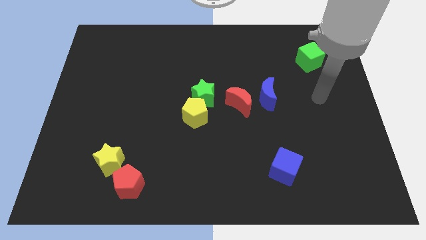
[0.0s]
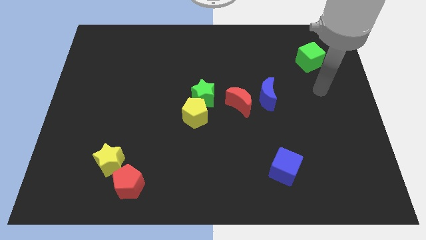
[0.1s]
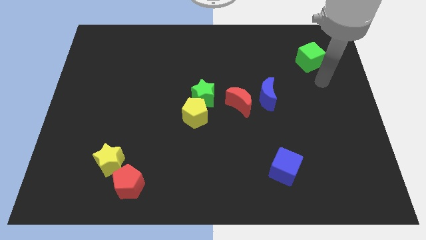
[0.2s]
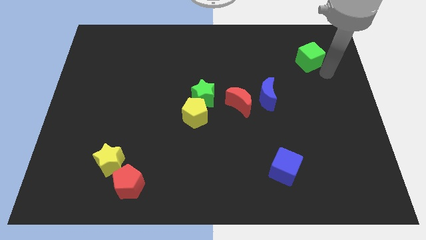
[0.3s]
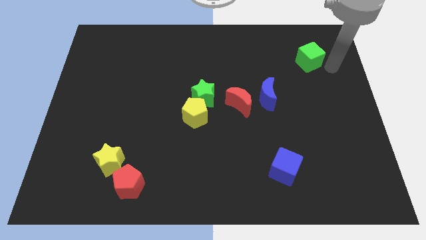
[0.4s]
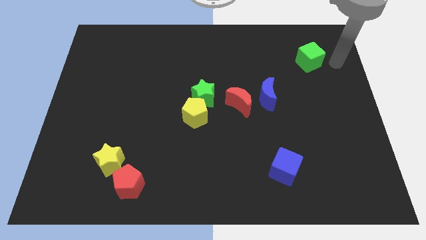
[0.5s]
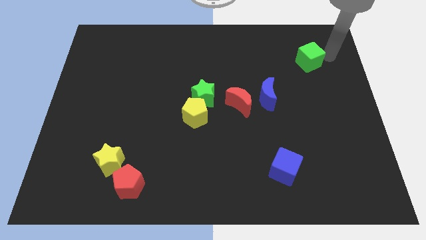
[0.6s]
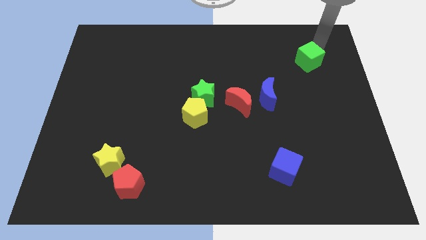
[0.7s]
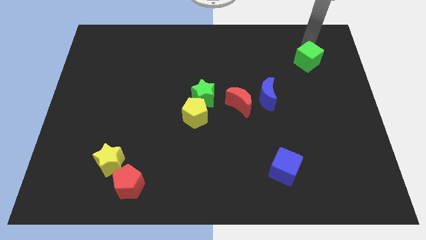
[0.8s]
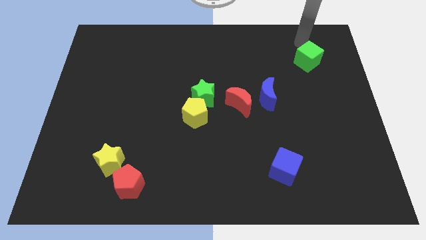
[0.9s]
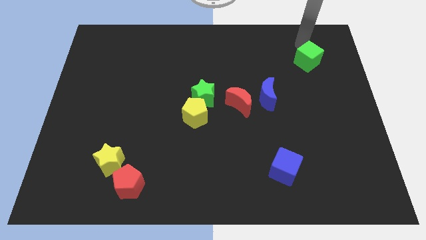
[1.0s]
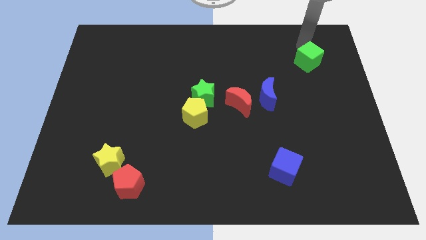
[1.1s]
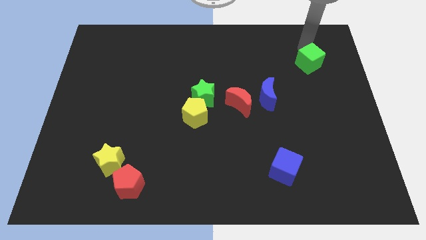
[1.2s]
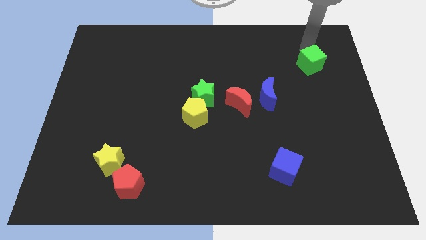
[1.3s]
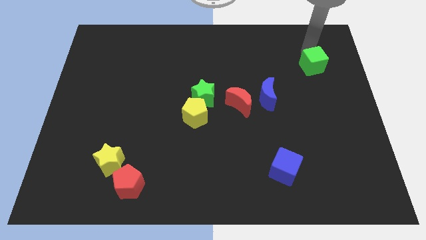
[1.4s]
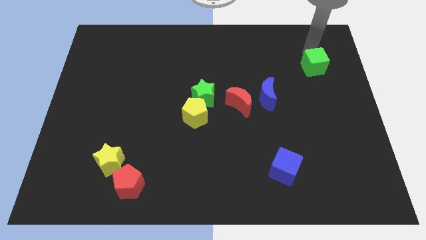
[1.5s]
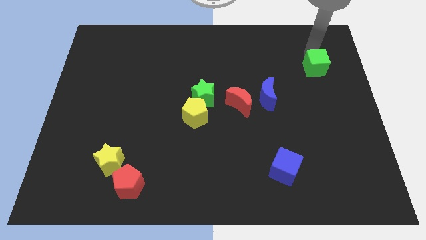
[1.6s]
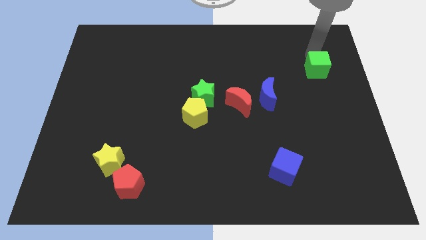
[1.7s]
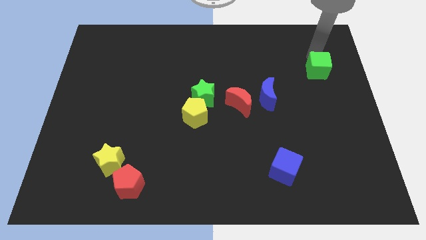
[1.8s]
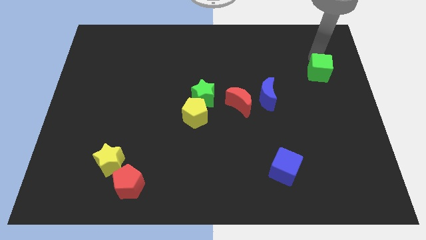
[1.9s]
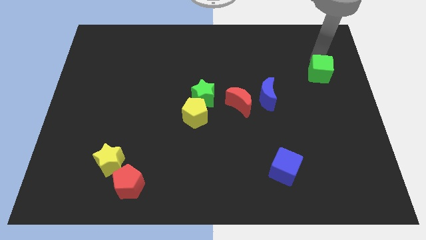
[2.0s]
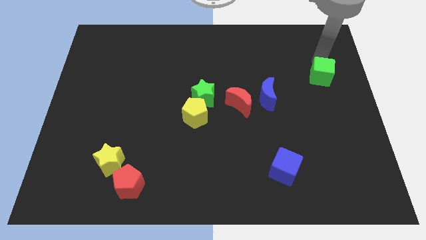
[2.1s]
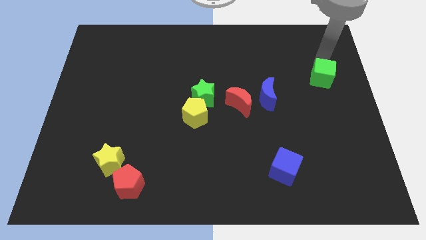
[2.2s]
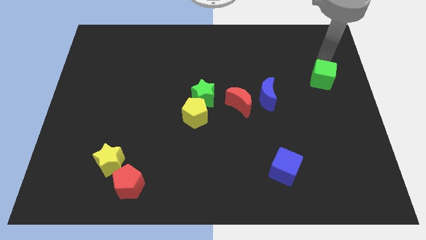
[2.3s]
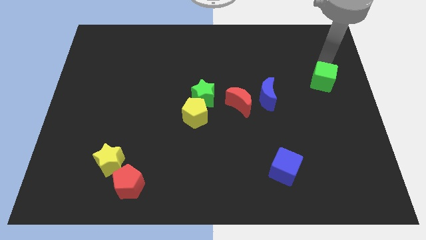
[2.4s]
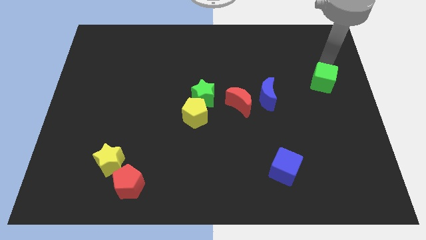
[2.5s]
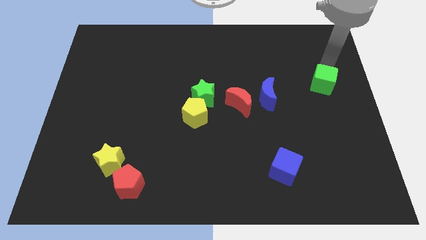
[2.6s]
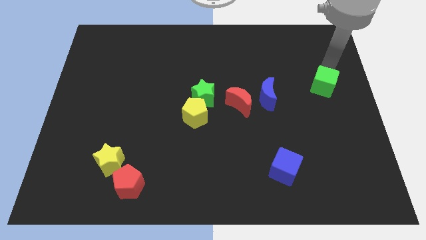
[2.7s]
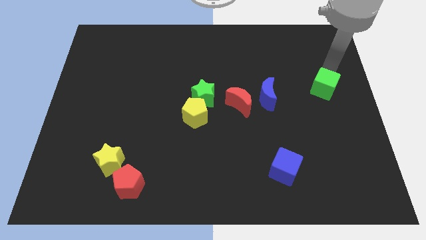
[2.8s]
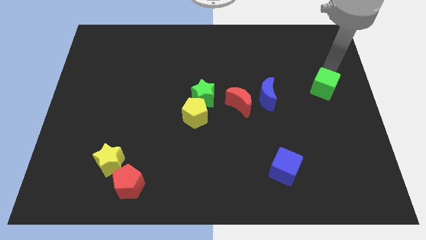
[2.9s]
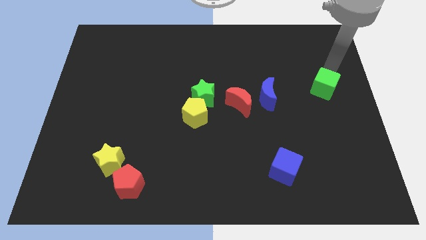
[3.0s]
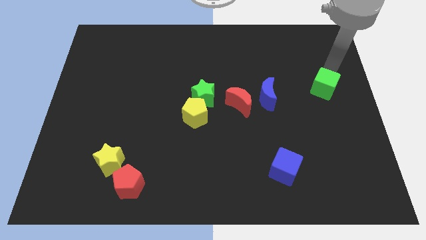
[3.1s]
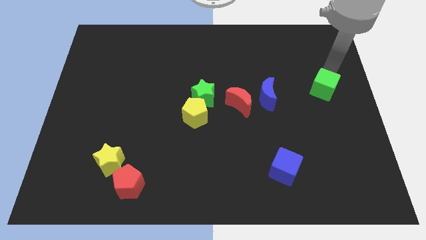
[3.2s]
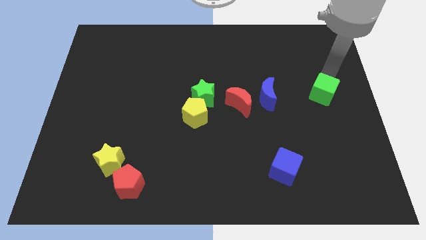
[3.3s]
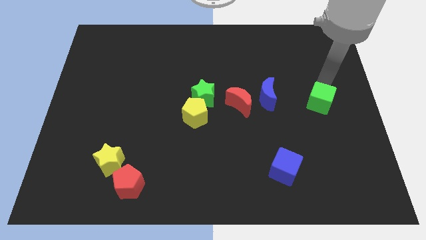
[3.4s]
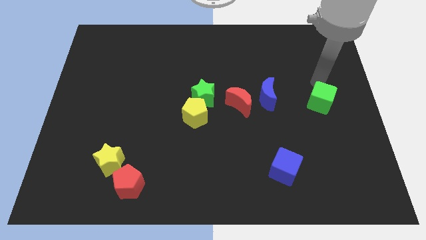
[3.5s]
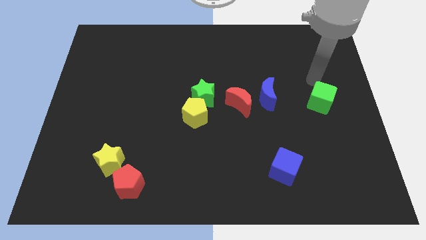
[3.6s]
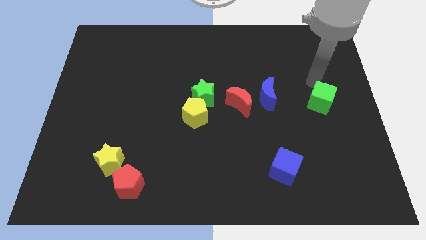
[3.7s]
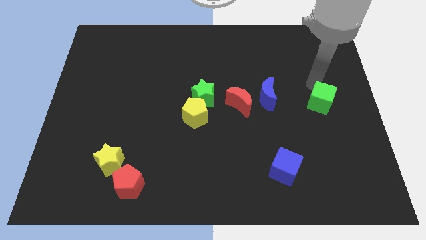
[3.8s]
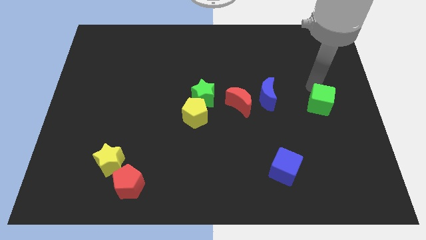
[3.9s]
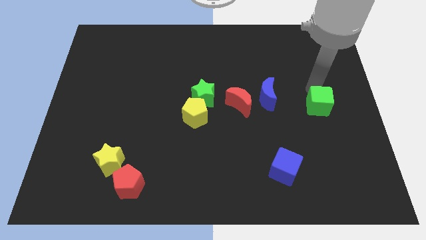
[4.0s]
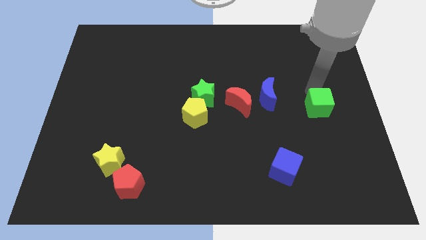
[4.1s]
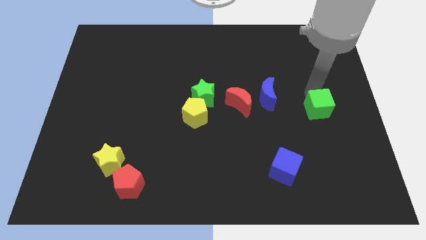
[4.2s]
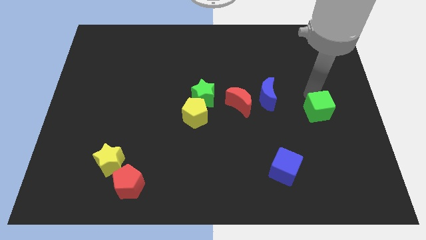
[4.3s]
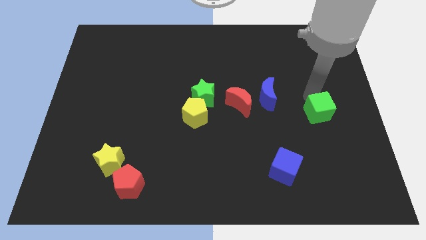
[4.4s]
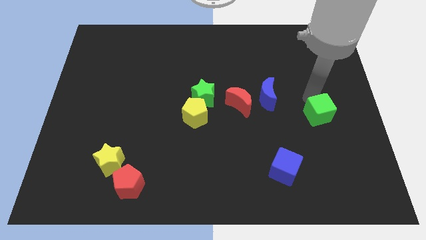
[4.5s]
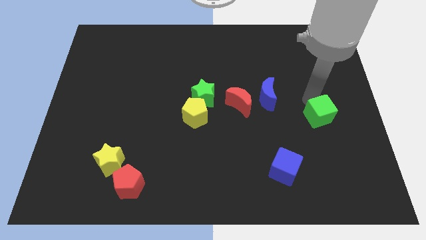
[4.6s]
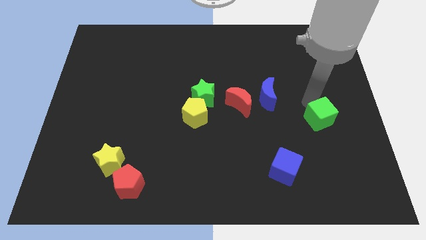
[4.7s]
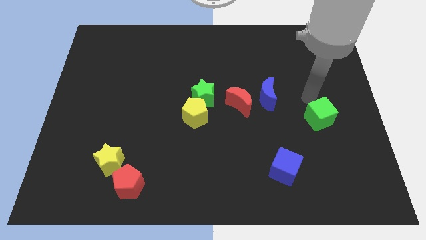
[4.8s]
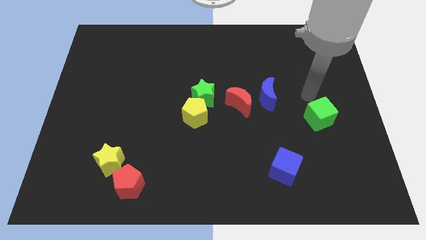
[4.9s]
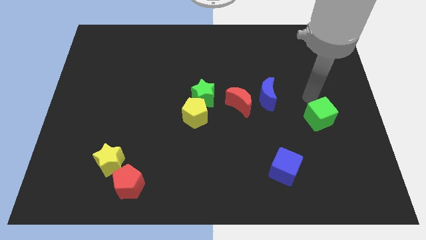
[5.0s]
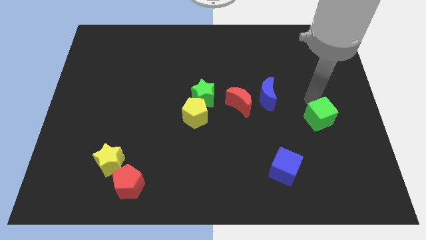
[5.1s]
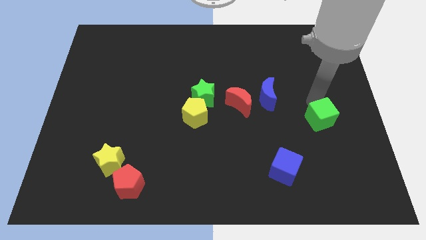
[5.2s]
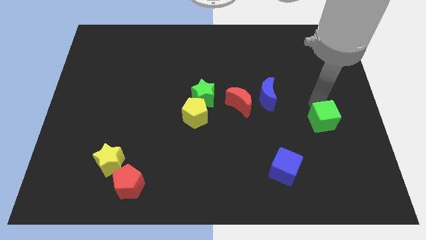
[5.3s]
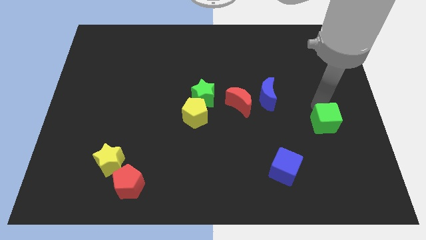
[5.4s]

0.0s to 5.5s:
move the green cube downwards

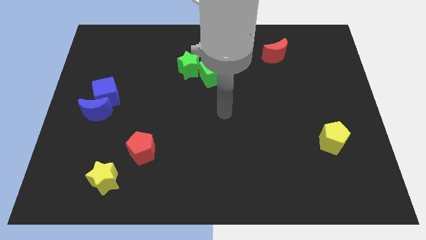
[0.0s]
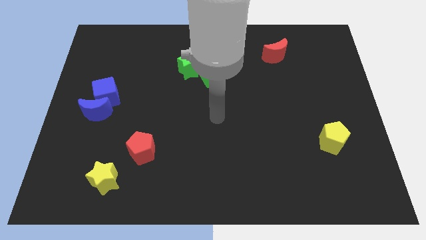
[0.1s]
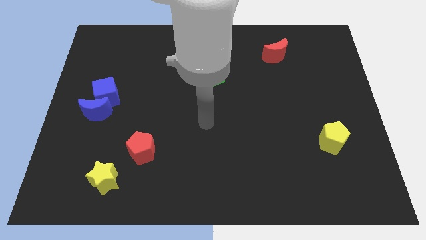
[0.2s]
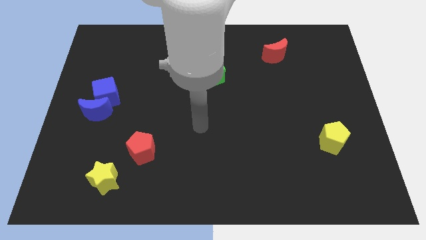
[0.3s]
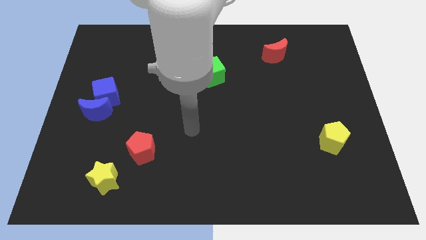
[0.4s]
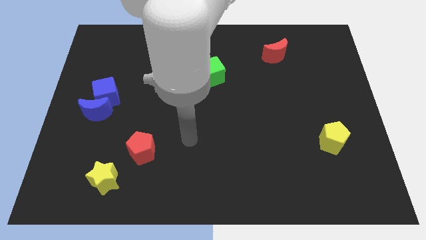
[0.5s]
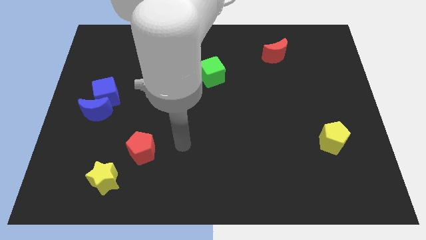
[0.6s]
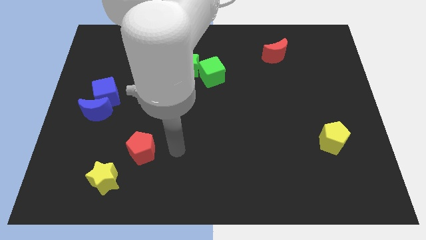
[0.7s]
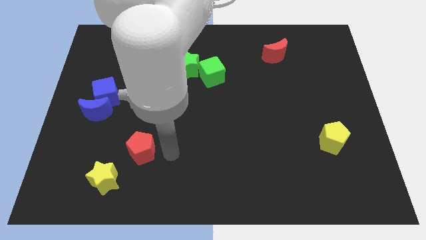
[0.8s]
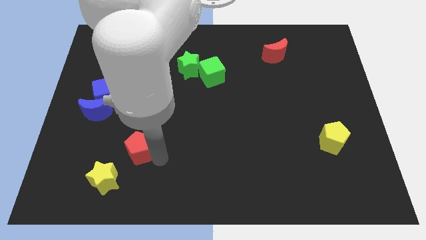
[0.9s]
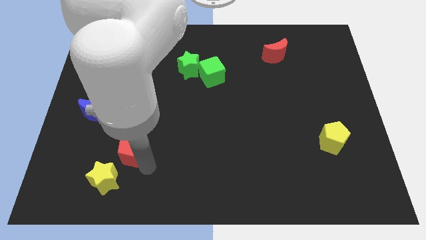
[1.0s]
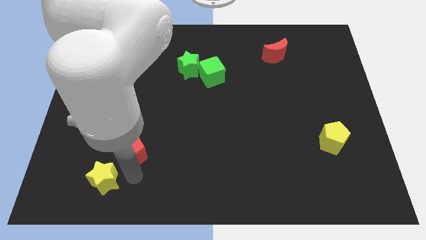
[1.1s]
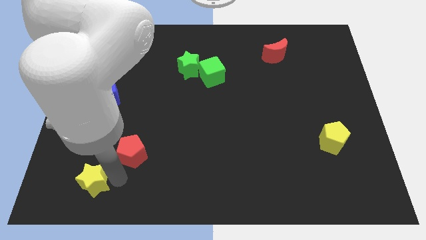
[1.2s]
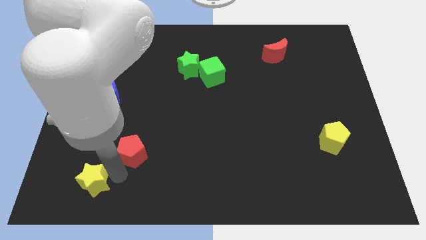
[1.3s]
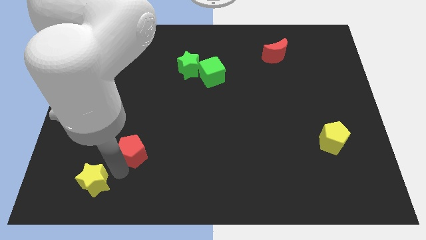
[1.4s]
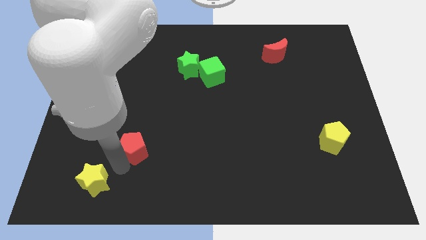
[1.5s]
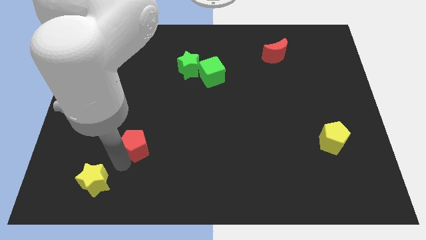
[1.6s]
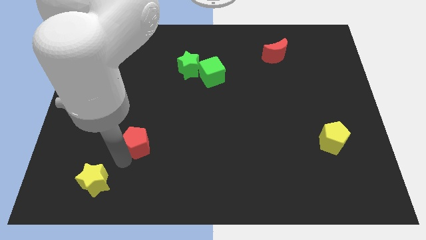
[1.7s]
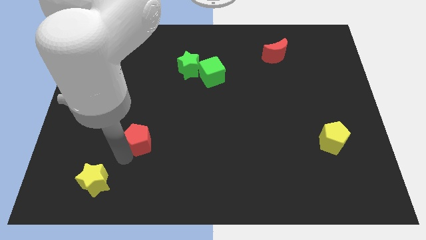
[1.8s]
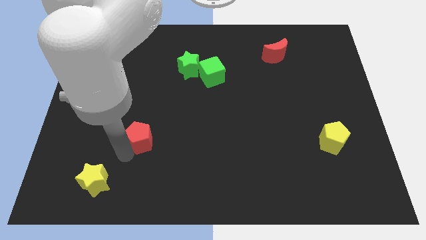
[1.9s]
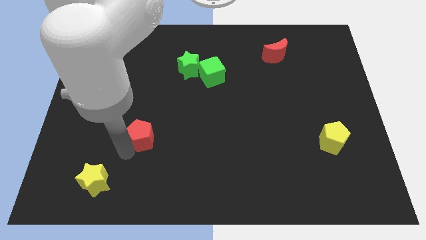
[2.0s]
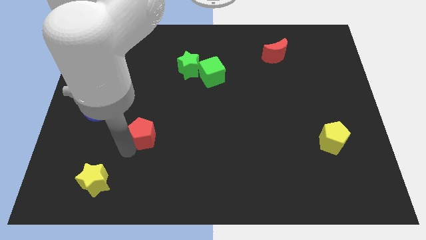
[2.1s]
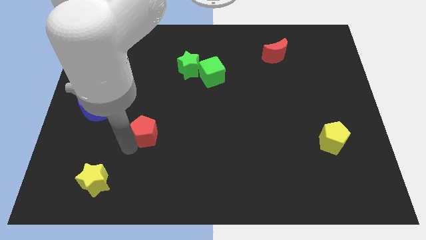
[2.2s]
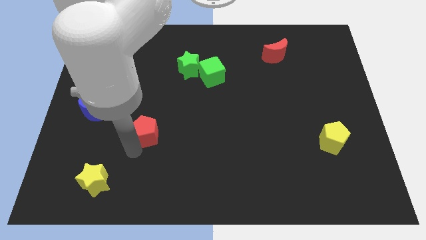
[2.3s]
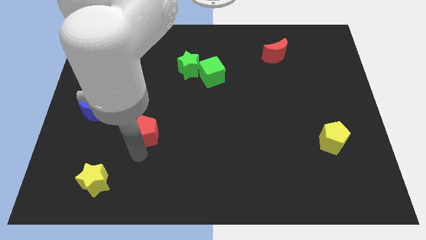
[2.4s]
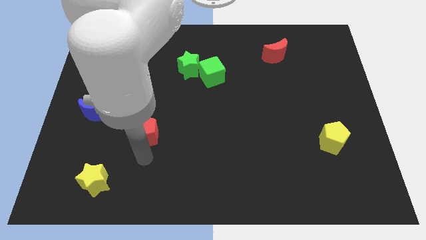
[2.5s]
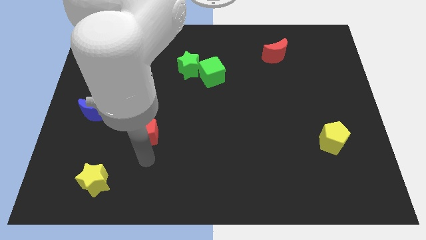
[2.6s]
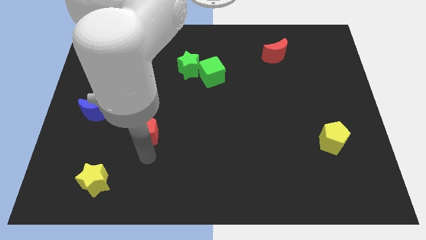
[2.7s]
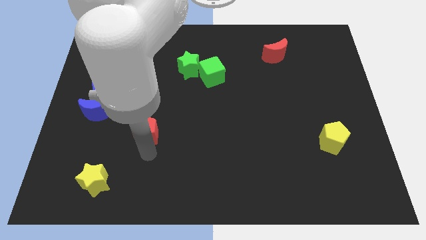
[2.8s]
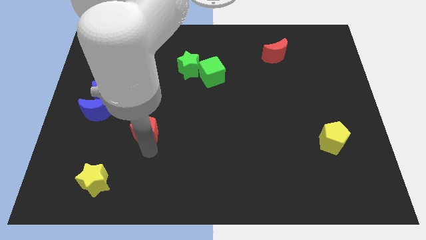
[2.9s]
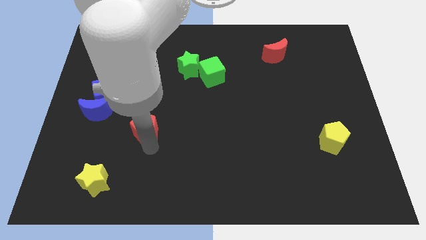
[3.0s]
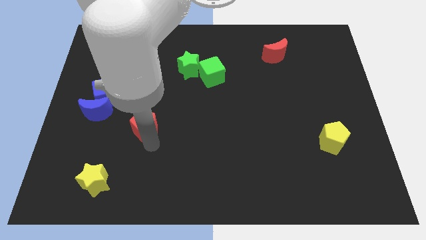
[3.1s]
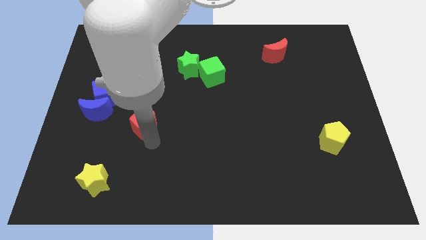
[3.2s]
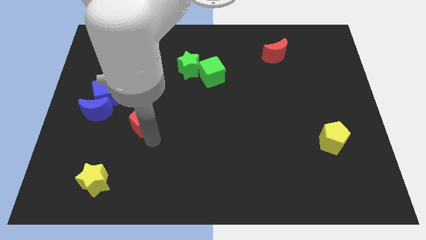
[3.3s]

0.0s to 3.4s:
push the red pentagon upwards slightly
